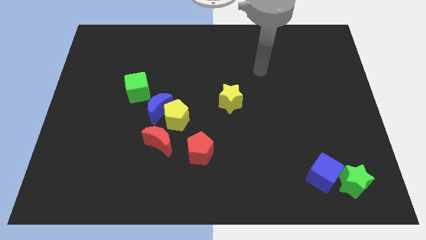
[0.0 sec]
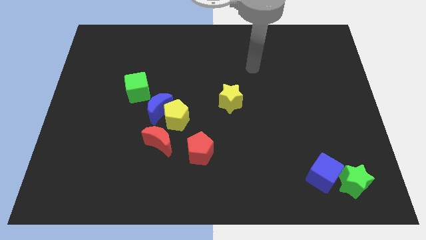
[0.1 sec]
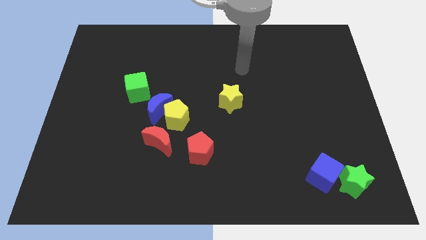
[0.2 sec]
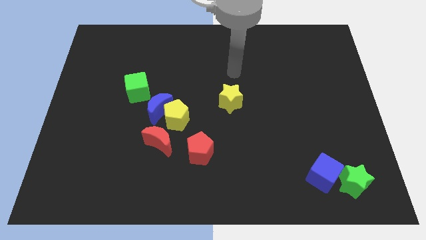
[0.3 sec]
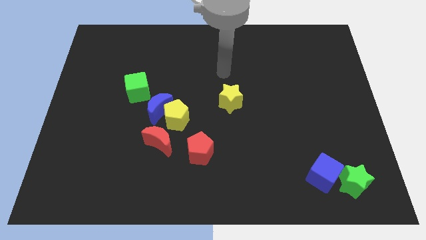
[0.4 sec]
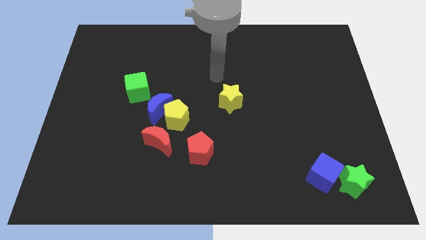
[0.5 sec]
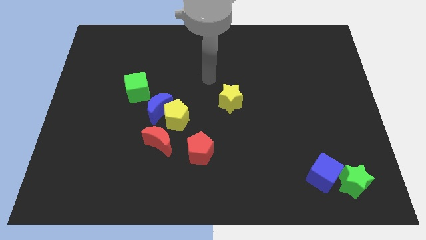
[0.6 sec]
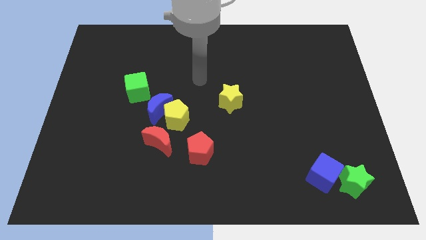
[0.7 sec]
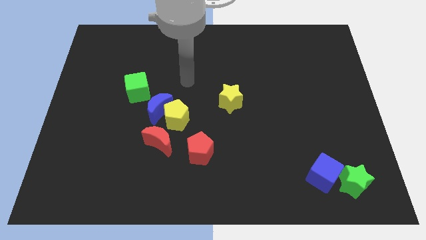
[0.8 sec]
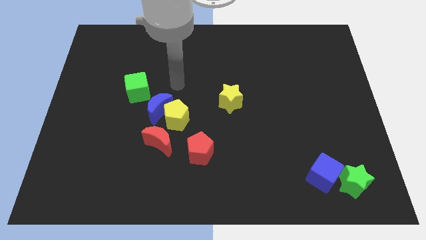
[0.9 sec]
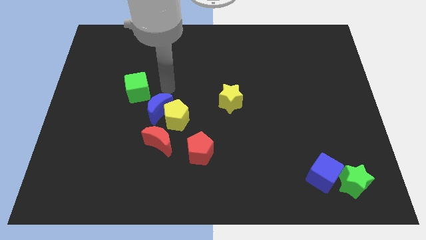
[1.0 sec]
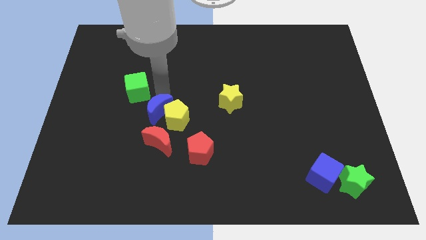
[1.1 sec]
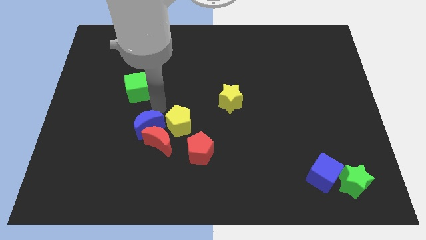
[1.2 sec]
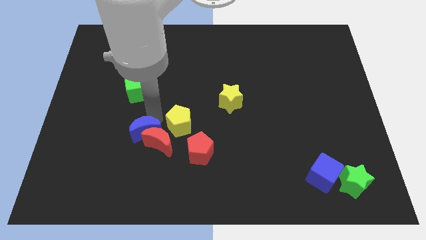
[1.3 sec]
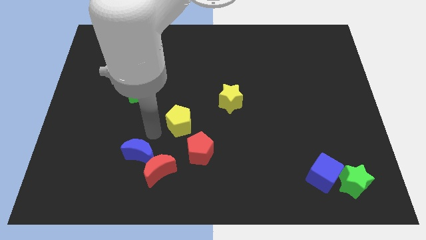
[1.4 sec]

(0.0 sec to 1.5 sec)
pull the yellow pentagon apart from the blue moon and red moon

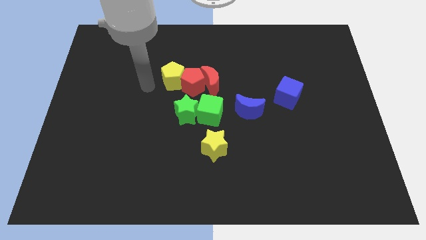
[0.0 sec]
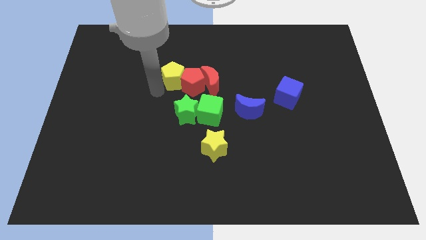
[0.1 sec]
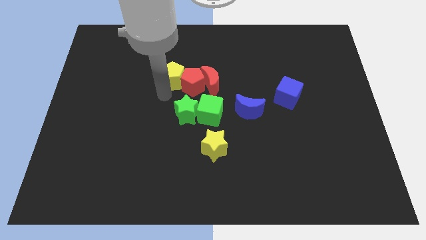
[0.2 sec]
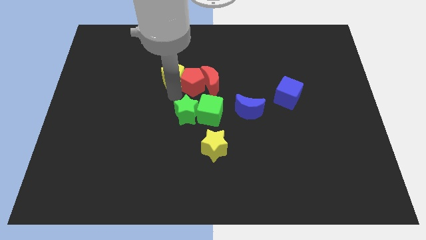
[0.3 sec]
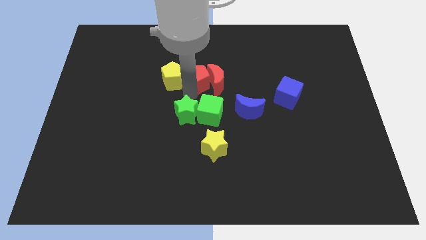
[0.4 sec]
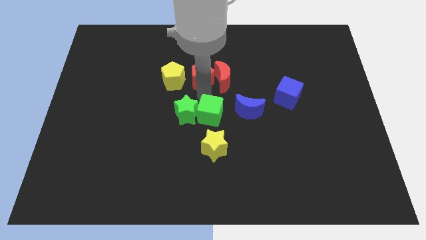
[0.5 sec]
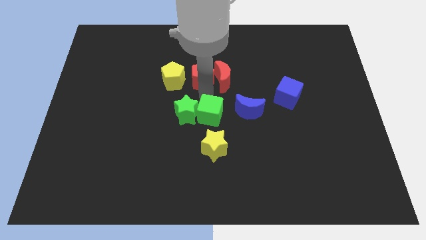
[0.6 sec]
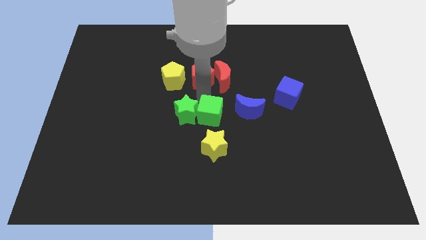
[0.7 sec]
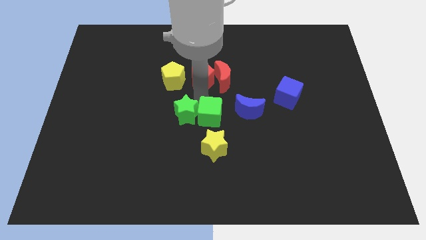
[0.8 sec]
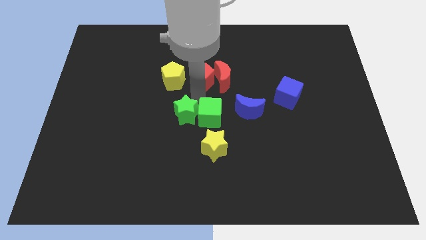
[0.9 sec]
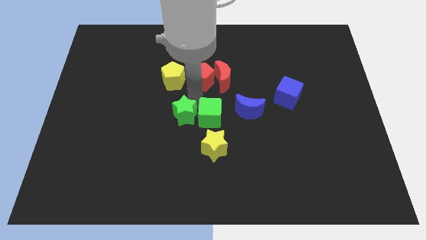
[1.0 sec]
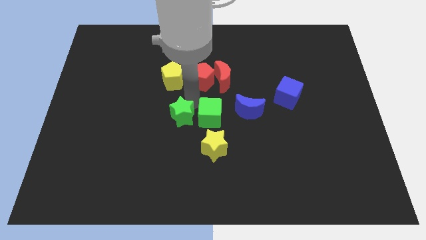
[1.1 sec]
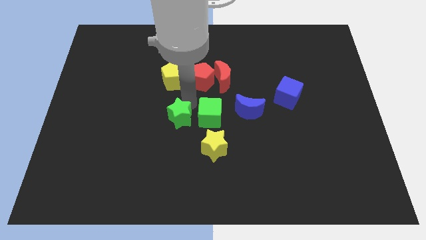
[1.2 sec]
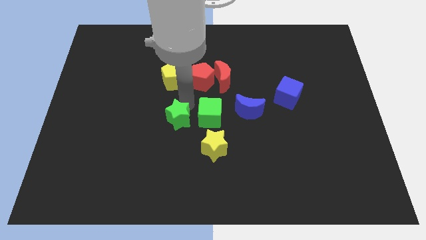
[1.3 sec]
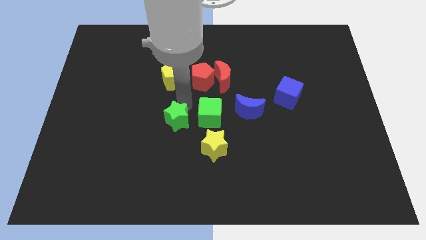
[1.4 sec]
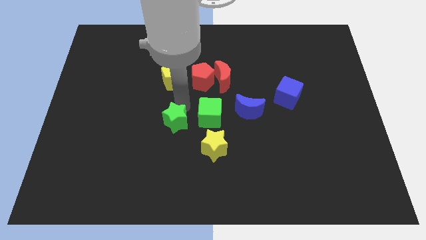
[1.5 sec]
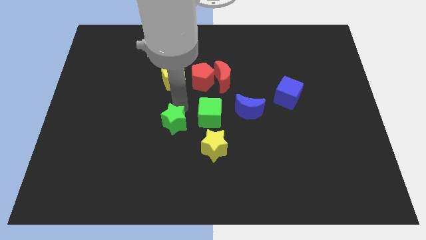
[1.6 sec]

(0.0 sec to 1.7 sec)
separate the green star from the green cube and red pentagon

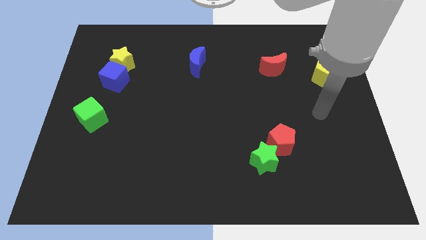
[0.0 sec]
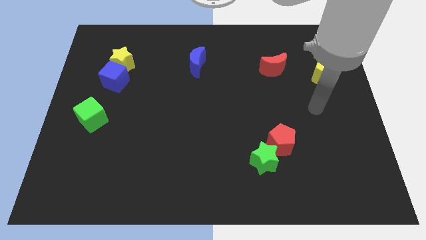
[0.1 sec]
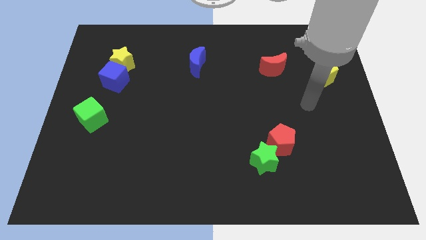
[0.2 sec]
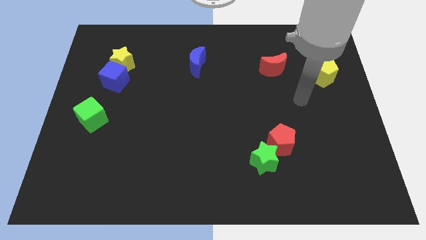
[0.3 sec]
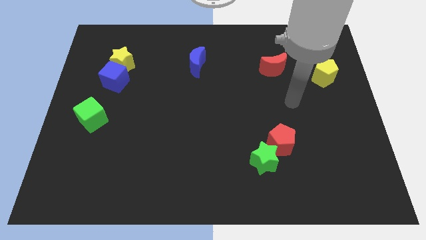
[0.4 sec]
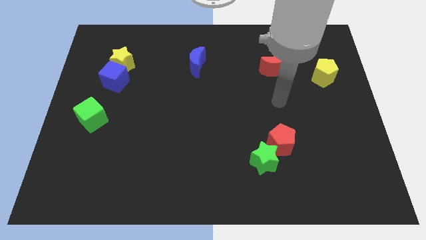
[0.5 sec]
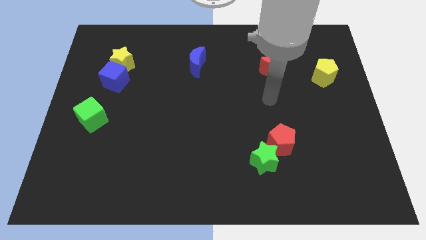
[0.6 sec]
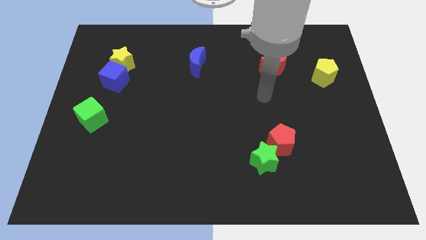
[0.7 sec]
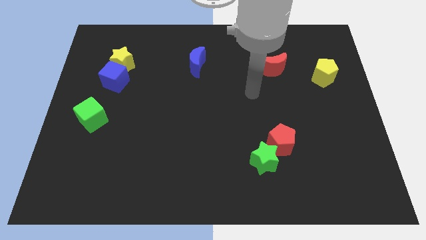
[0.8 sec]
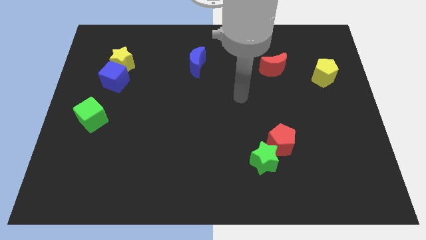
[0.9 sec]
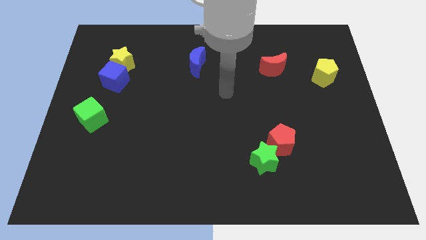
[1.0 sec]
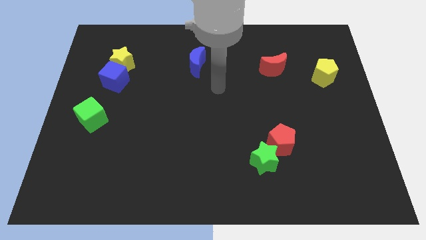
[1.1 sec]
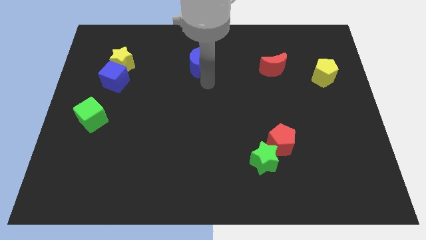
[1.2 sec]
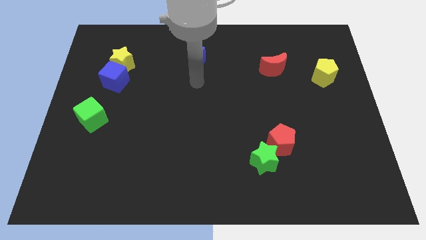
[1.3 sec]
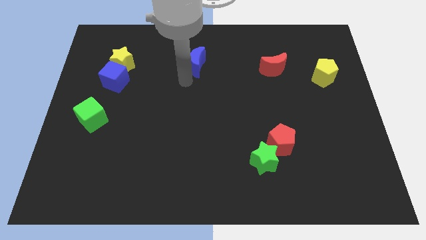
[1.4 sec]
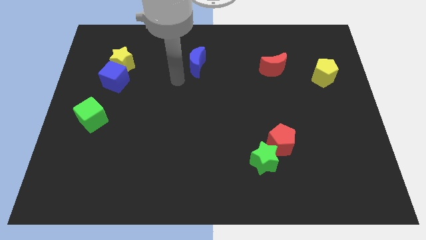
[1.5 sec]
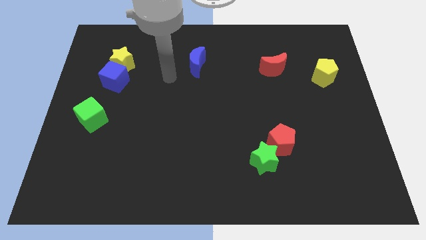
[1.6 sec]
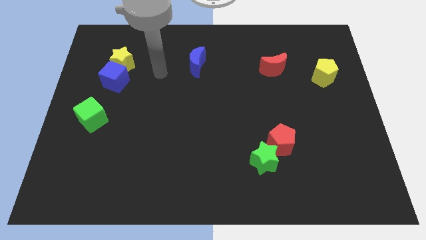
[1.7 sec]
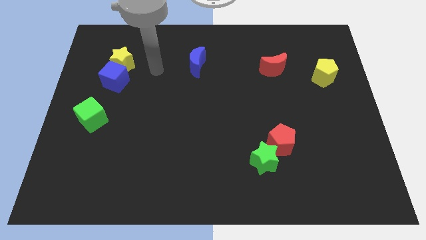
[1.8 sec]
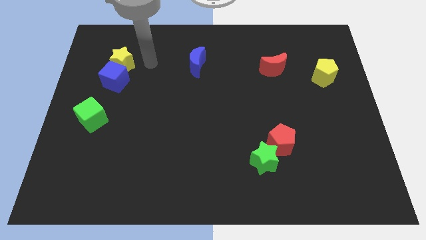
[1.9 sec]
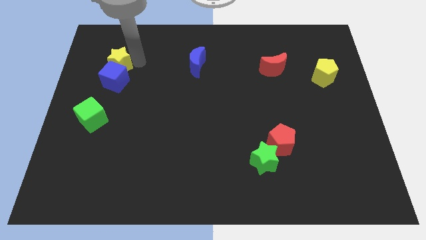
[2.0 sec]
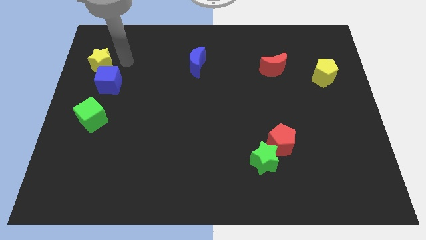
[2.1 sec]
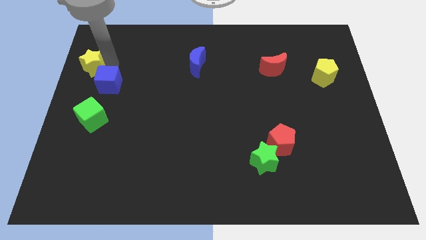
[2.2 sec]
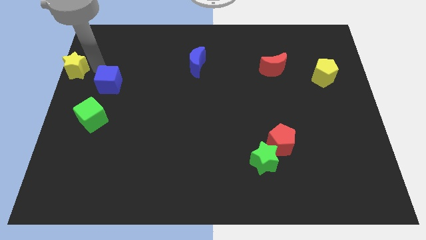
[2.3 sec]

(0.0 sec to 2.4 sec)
separate the blue cube from the yellow star

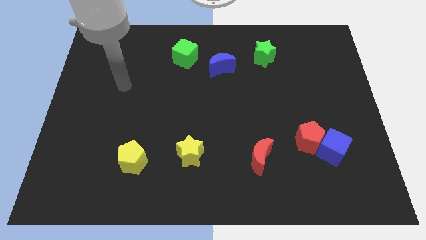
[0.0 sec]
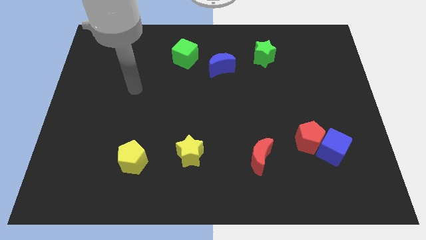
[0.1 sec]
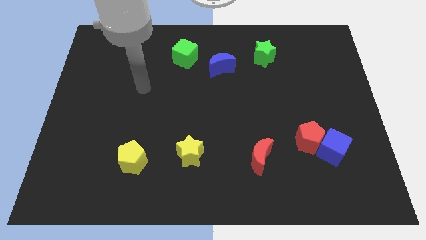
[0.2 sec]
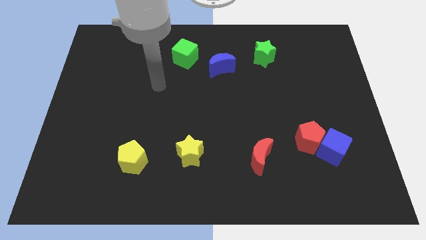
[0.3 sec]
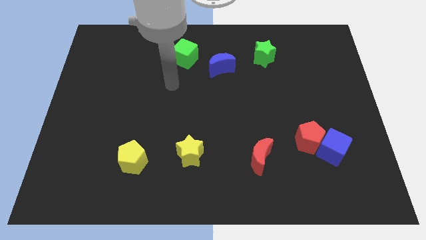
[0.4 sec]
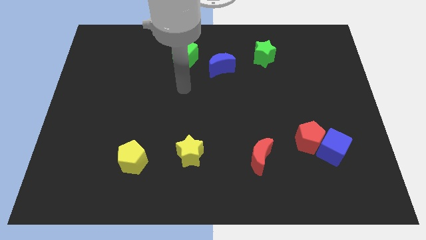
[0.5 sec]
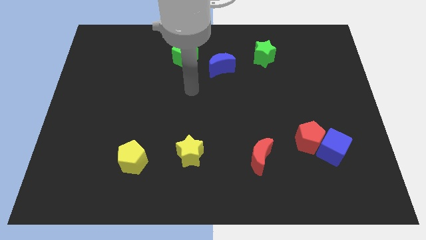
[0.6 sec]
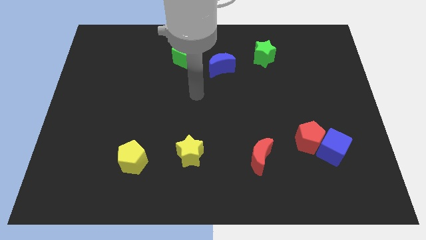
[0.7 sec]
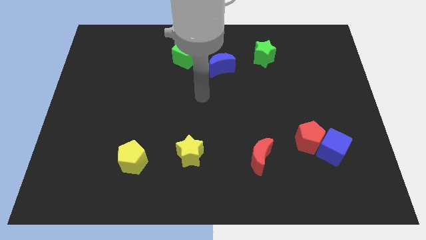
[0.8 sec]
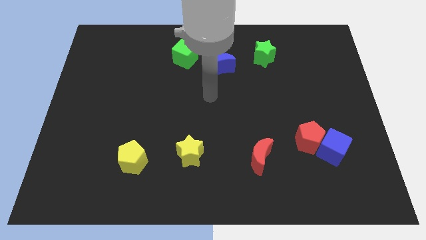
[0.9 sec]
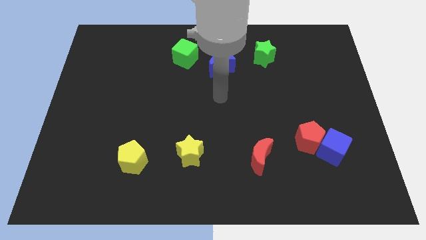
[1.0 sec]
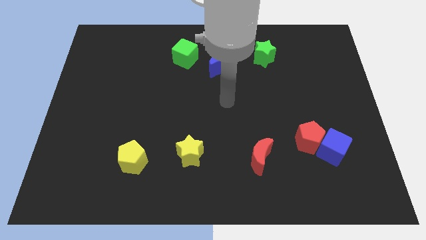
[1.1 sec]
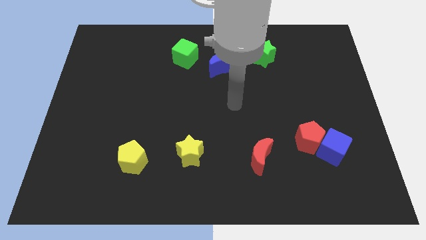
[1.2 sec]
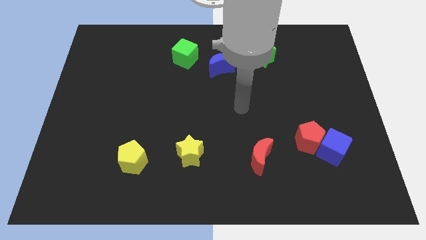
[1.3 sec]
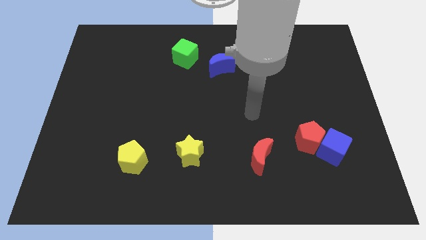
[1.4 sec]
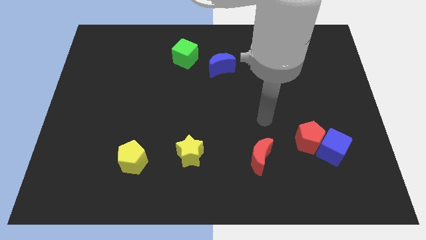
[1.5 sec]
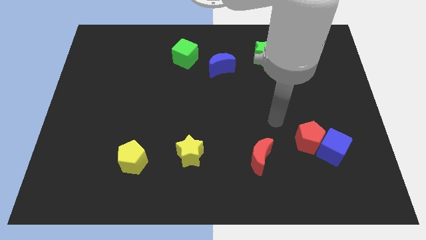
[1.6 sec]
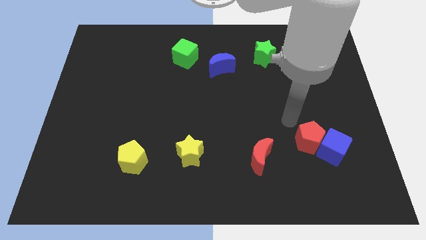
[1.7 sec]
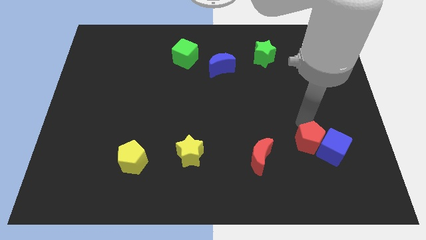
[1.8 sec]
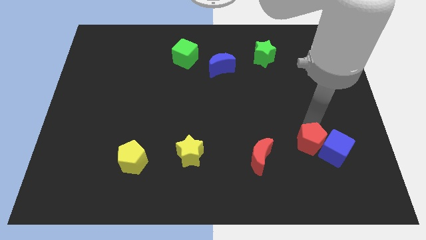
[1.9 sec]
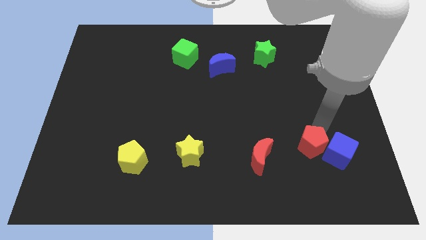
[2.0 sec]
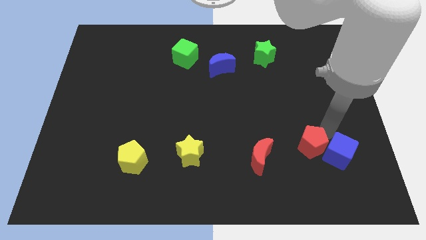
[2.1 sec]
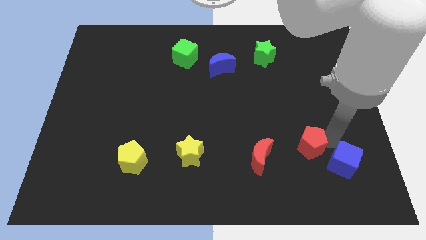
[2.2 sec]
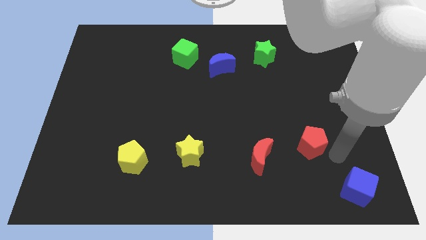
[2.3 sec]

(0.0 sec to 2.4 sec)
move the red pentagon away from the blue cube

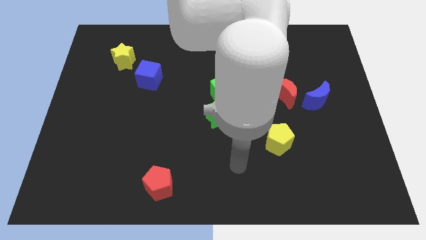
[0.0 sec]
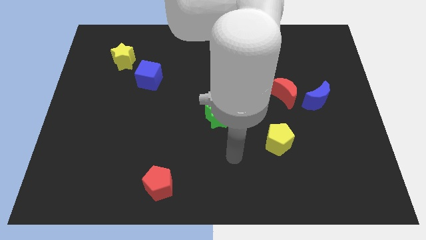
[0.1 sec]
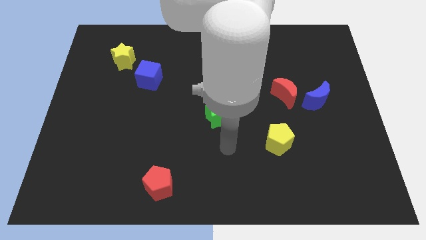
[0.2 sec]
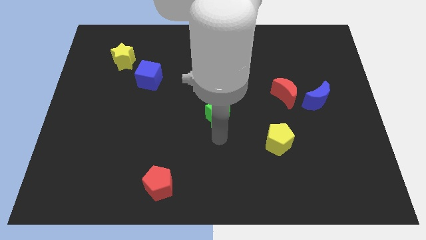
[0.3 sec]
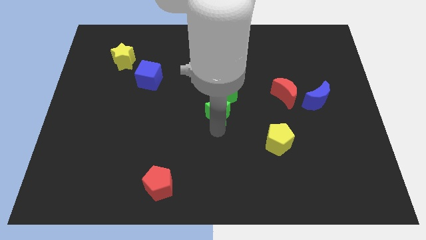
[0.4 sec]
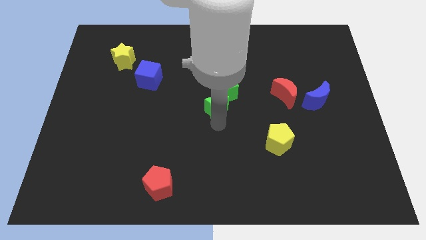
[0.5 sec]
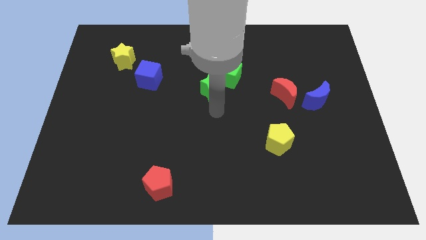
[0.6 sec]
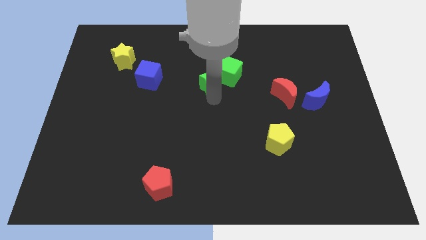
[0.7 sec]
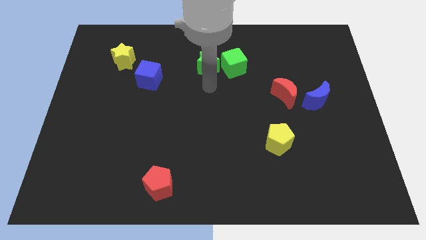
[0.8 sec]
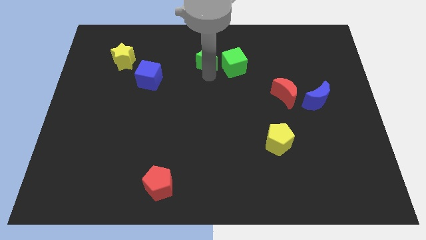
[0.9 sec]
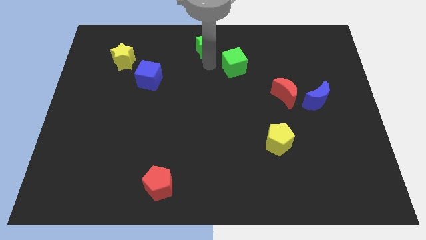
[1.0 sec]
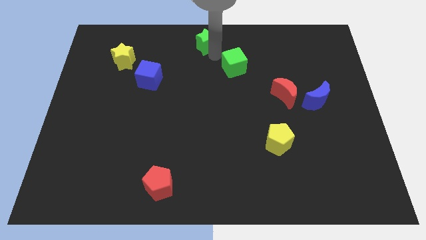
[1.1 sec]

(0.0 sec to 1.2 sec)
pull the green cube apart from the green star
